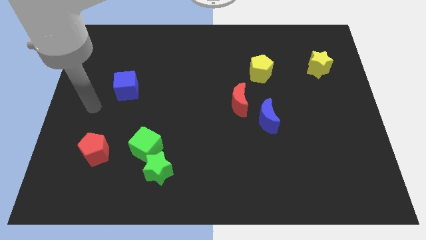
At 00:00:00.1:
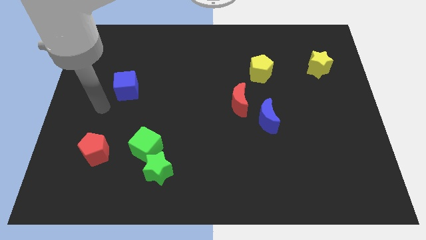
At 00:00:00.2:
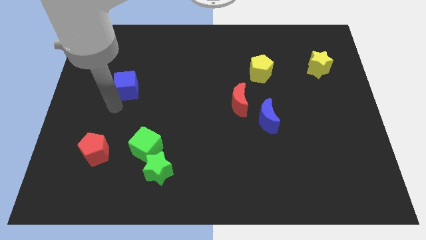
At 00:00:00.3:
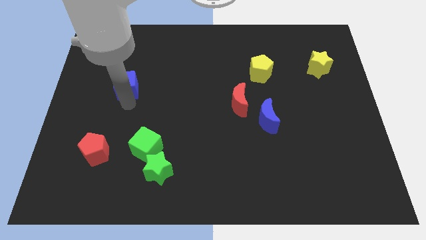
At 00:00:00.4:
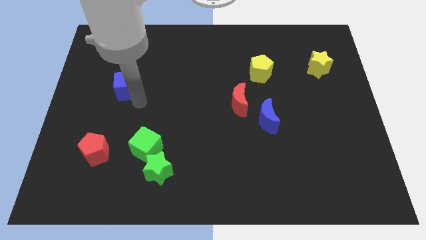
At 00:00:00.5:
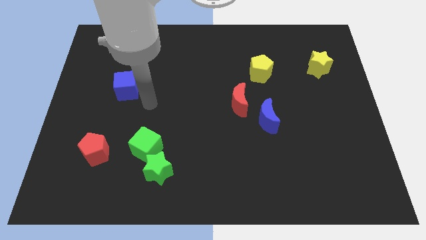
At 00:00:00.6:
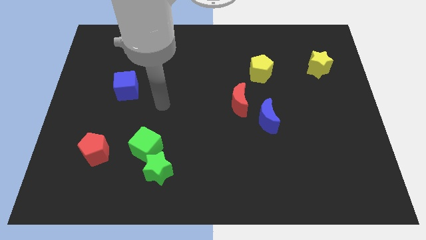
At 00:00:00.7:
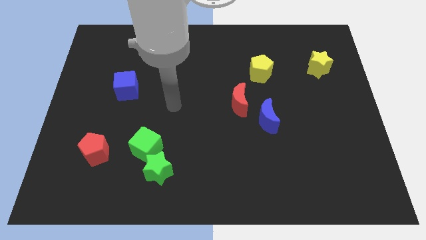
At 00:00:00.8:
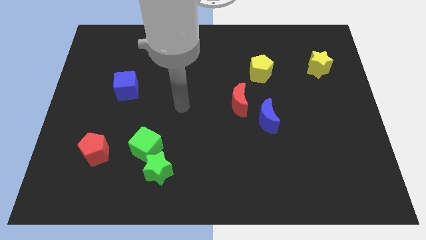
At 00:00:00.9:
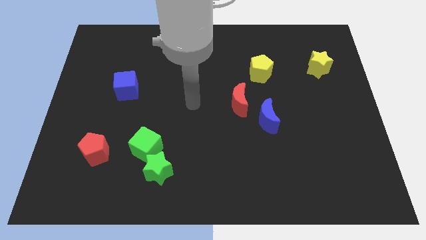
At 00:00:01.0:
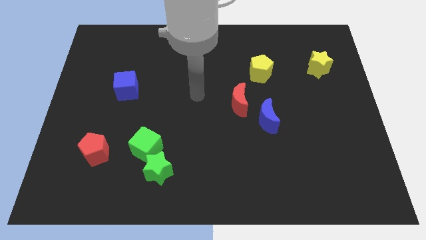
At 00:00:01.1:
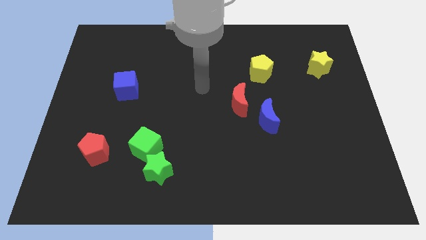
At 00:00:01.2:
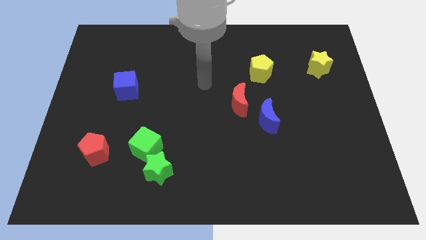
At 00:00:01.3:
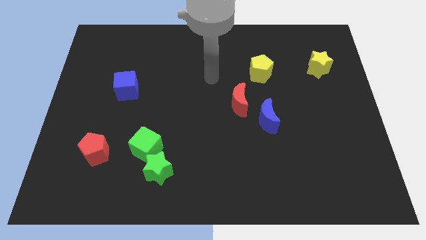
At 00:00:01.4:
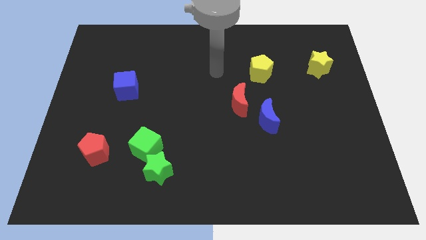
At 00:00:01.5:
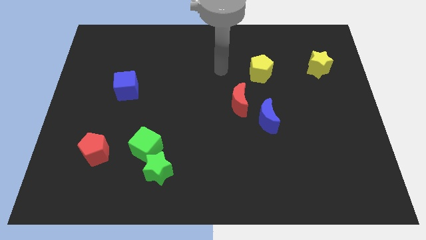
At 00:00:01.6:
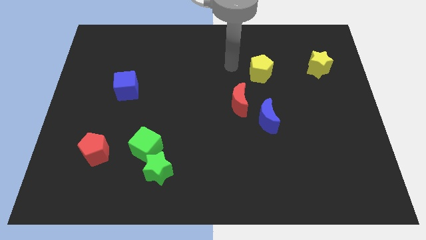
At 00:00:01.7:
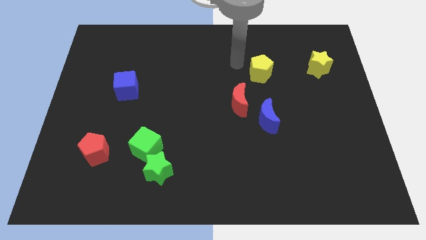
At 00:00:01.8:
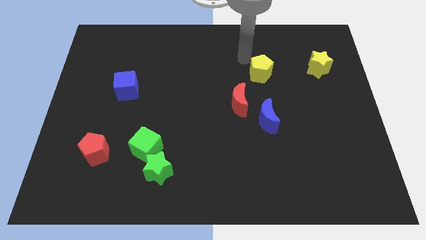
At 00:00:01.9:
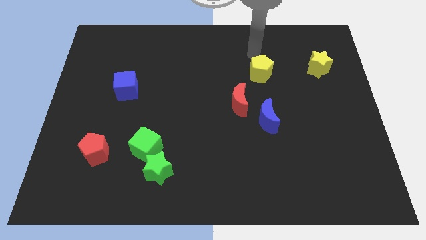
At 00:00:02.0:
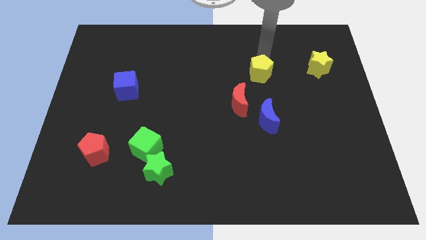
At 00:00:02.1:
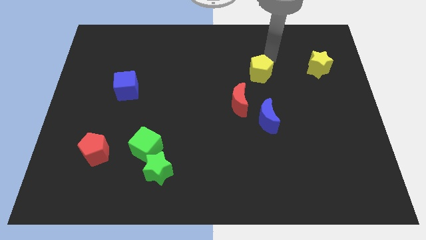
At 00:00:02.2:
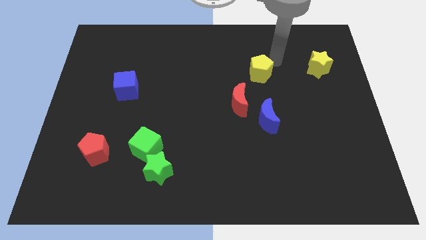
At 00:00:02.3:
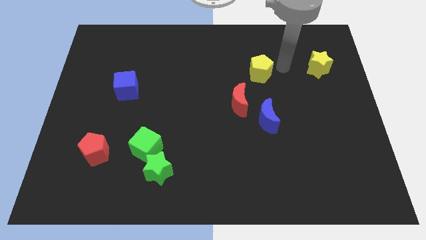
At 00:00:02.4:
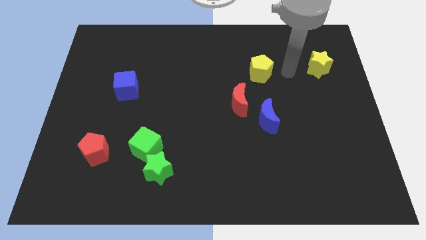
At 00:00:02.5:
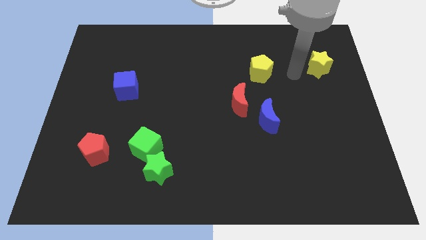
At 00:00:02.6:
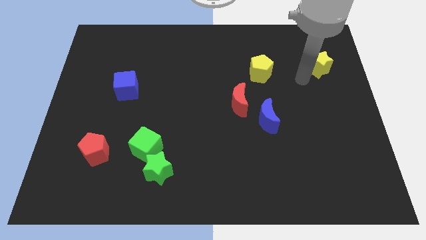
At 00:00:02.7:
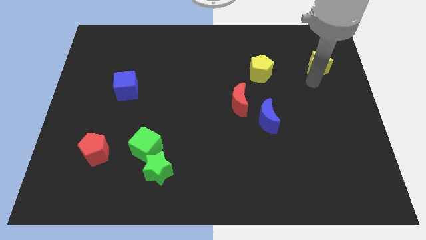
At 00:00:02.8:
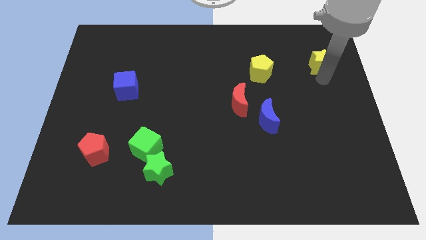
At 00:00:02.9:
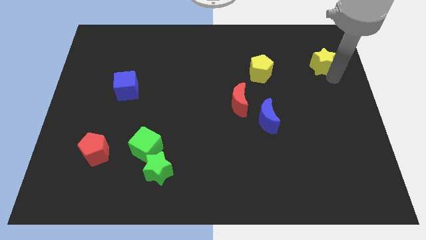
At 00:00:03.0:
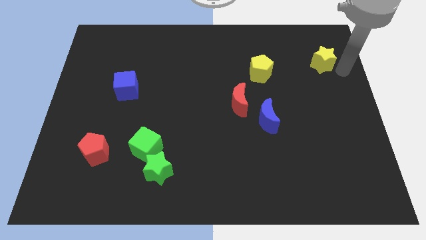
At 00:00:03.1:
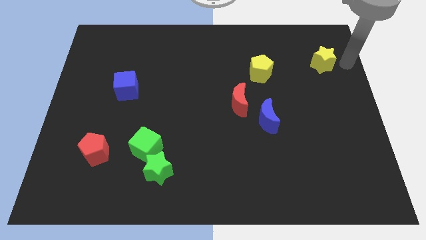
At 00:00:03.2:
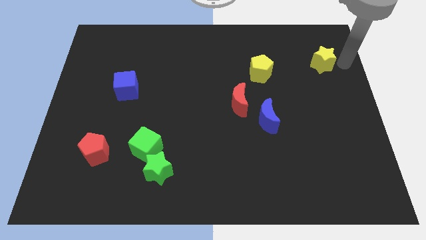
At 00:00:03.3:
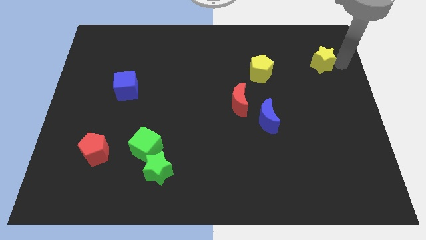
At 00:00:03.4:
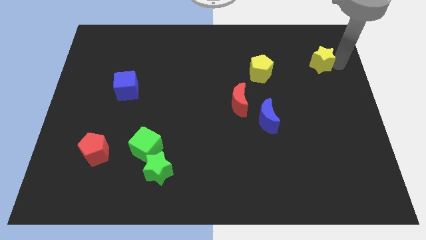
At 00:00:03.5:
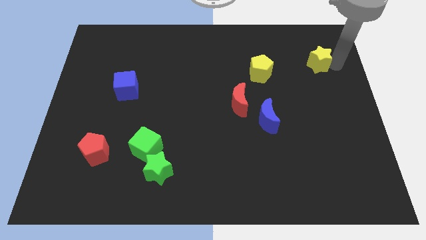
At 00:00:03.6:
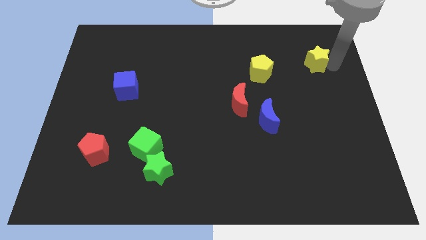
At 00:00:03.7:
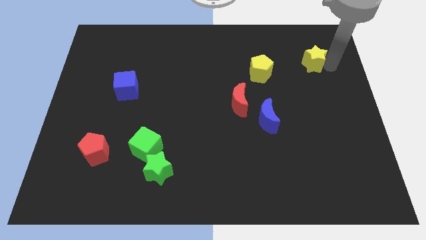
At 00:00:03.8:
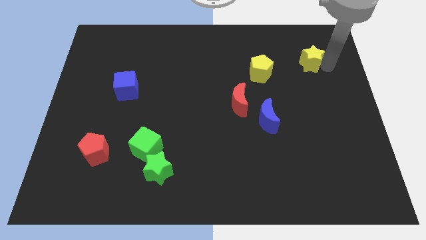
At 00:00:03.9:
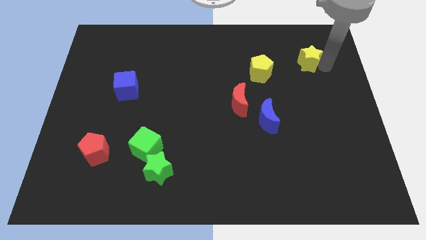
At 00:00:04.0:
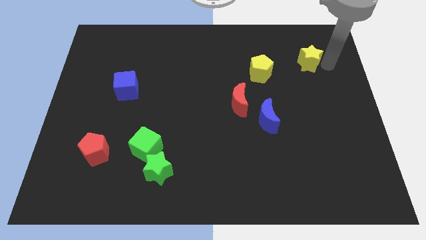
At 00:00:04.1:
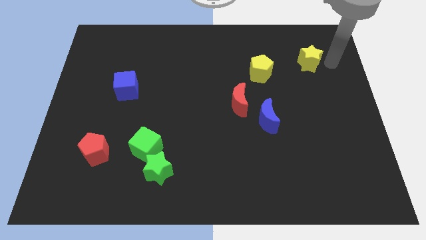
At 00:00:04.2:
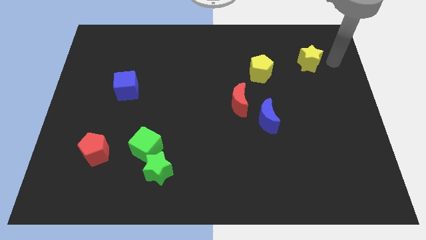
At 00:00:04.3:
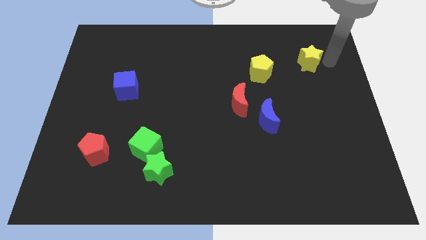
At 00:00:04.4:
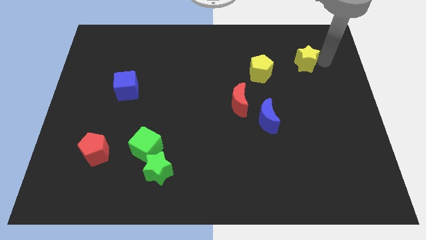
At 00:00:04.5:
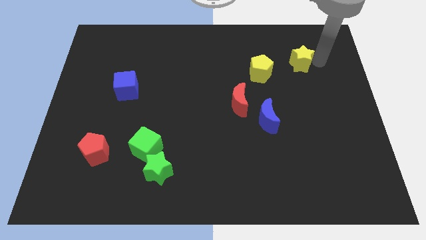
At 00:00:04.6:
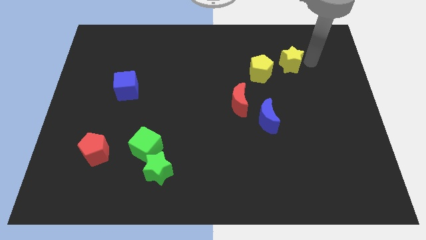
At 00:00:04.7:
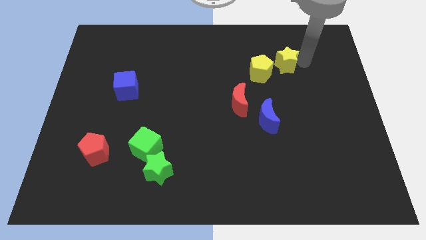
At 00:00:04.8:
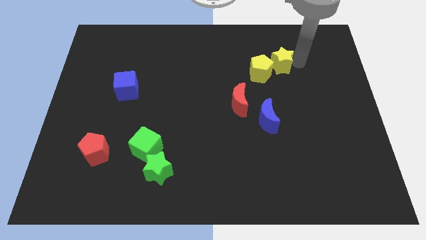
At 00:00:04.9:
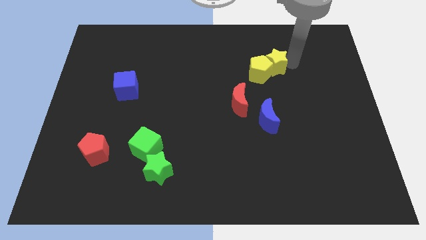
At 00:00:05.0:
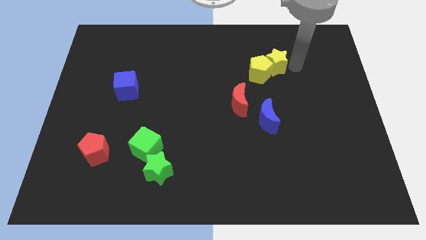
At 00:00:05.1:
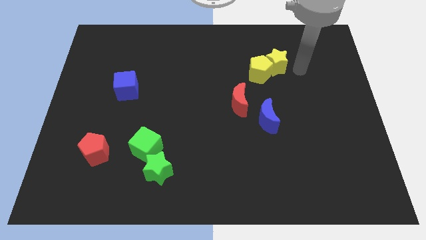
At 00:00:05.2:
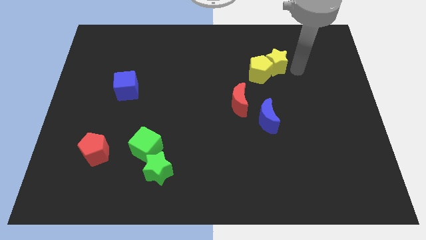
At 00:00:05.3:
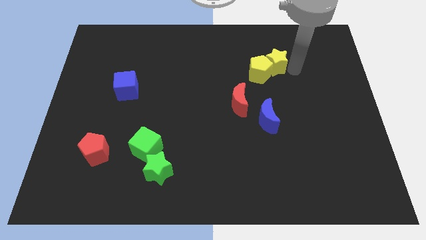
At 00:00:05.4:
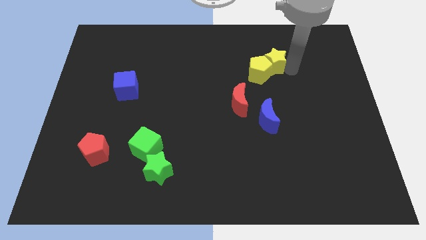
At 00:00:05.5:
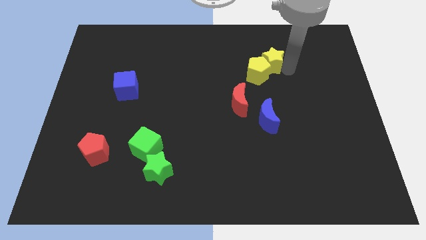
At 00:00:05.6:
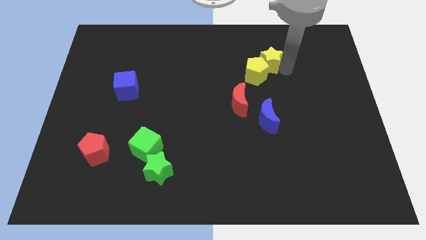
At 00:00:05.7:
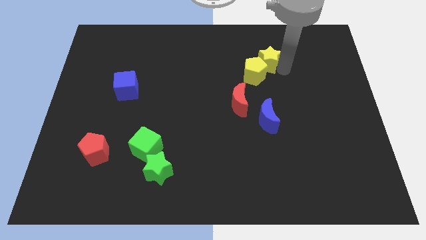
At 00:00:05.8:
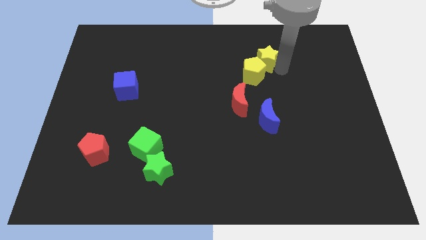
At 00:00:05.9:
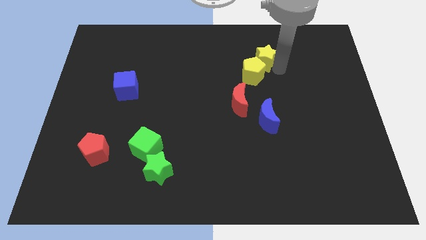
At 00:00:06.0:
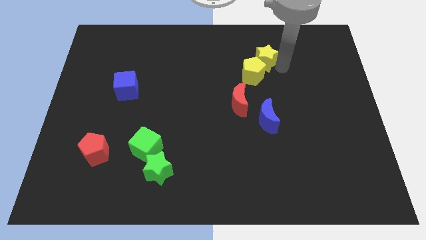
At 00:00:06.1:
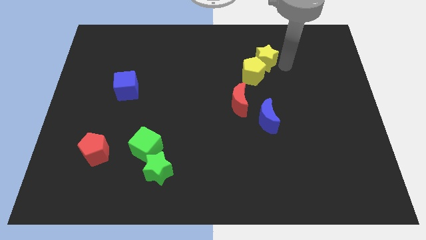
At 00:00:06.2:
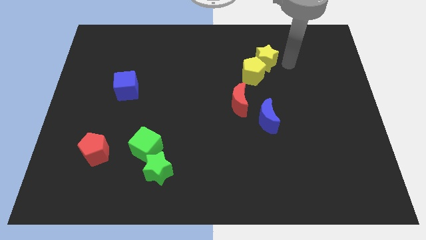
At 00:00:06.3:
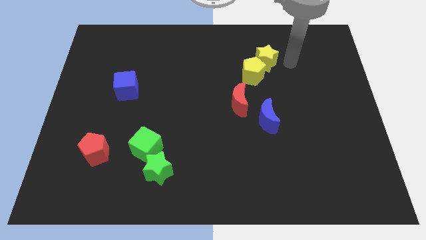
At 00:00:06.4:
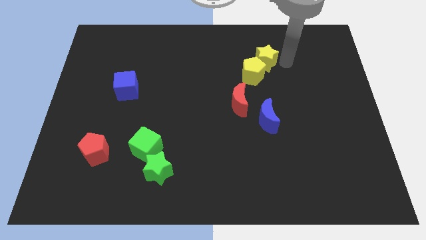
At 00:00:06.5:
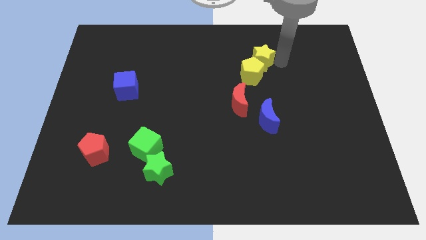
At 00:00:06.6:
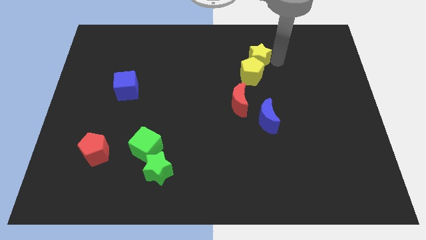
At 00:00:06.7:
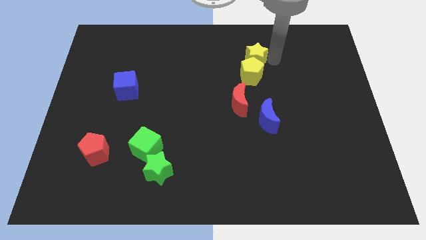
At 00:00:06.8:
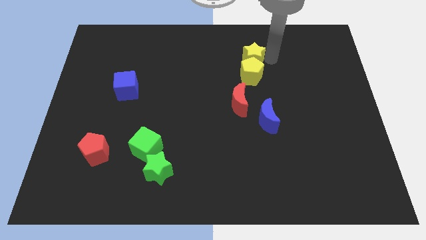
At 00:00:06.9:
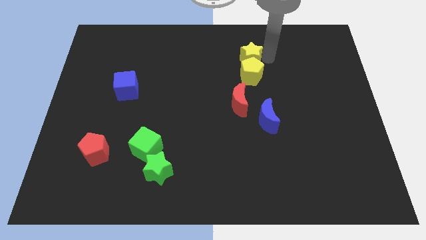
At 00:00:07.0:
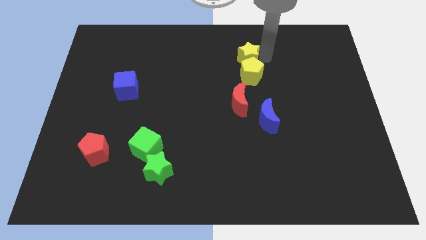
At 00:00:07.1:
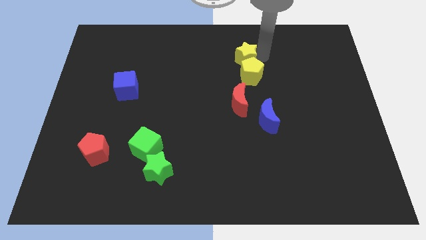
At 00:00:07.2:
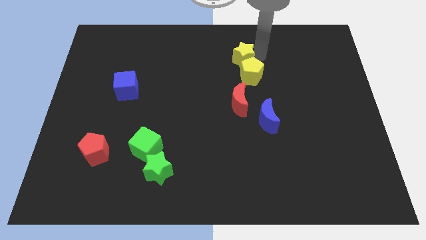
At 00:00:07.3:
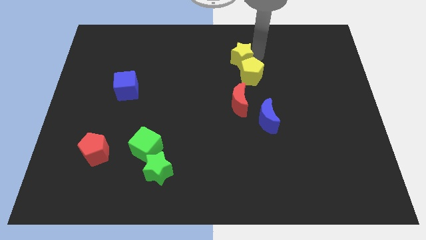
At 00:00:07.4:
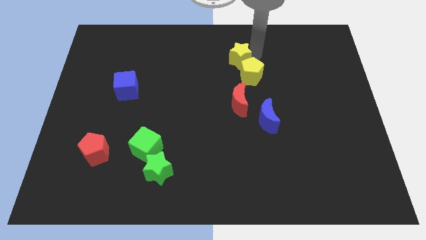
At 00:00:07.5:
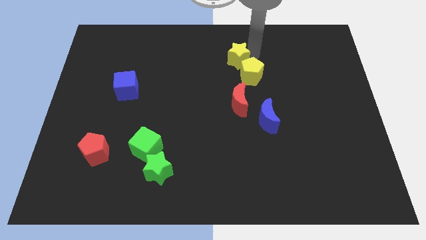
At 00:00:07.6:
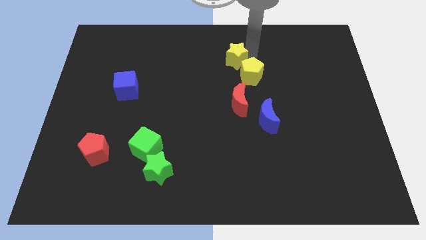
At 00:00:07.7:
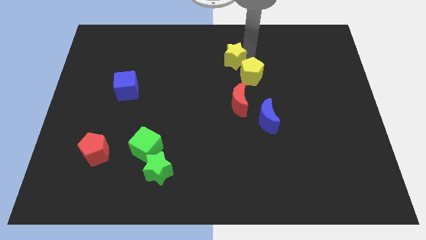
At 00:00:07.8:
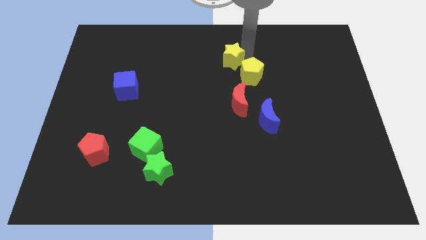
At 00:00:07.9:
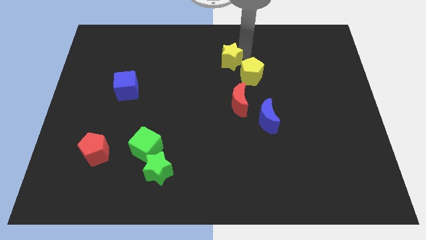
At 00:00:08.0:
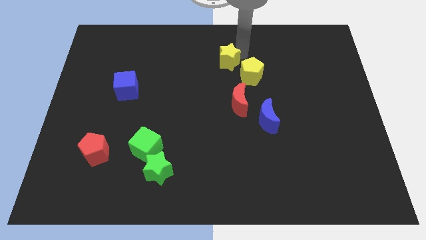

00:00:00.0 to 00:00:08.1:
push the yellow star left of the yellow pentagon
